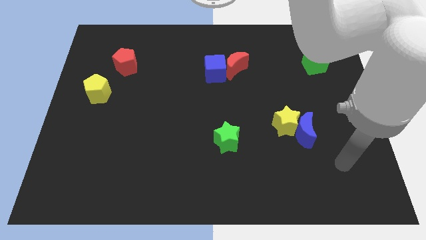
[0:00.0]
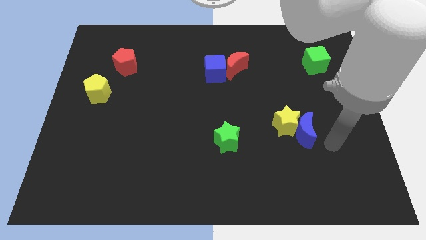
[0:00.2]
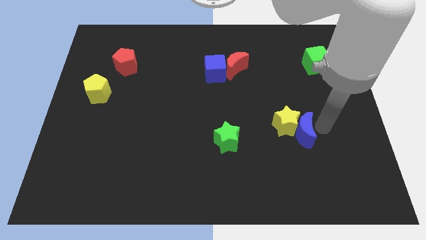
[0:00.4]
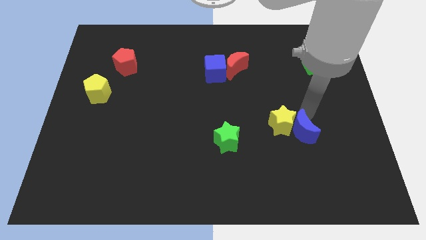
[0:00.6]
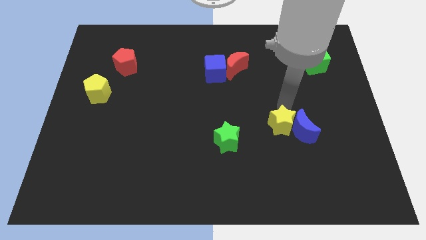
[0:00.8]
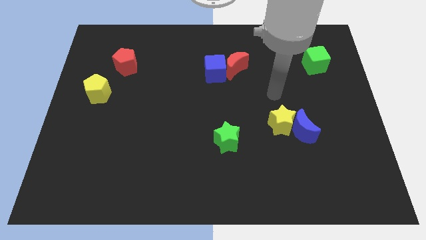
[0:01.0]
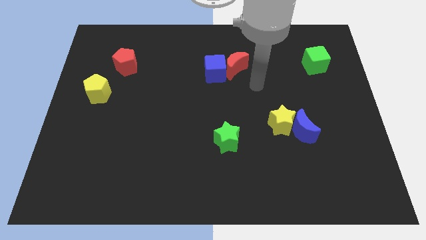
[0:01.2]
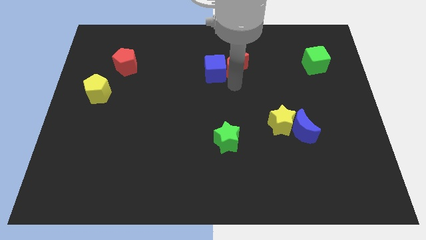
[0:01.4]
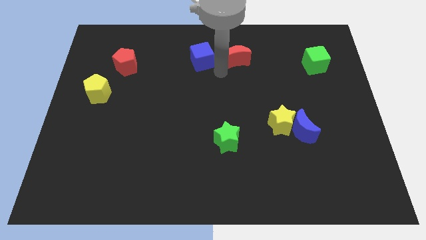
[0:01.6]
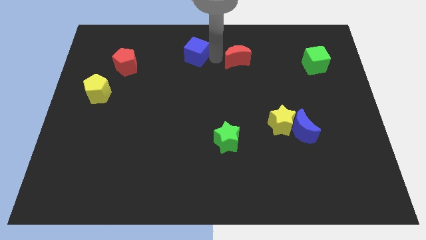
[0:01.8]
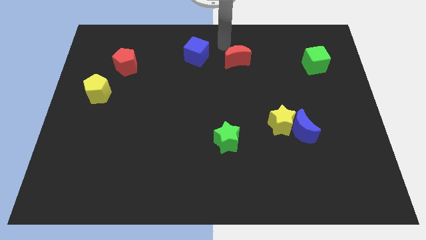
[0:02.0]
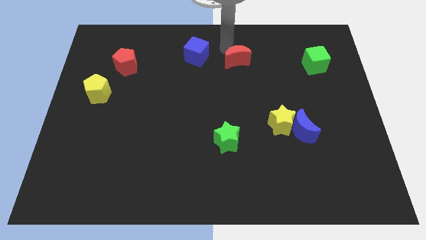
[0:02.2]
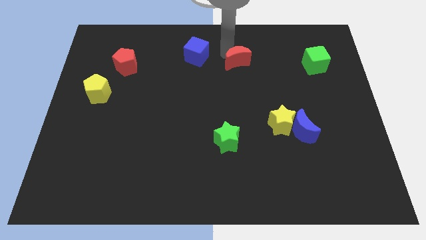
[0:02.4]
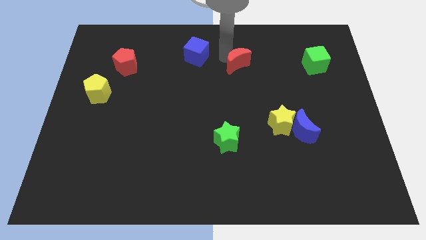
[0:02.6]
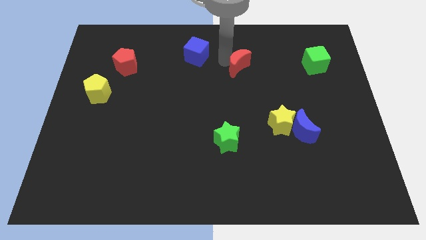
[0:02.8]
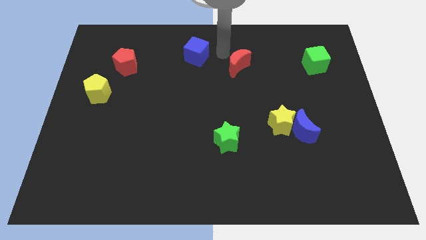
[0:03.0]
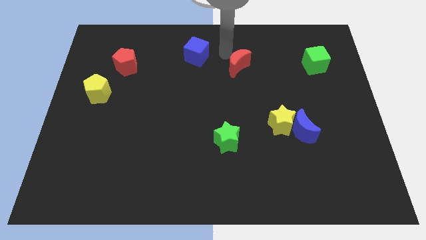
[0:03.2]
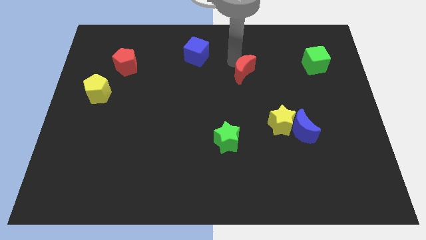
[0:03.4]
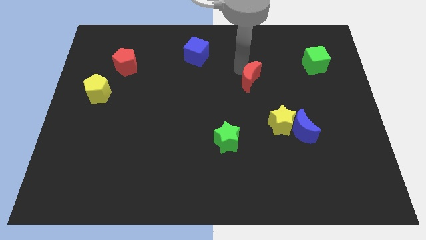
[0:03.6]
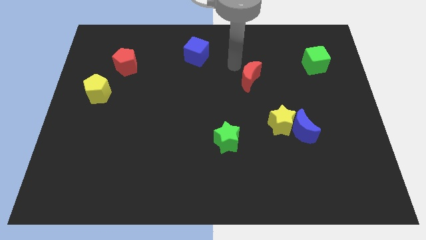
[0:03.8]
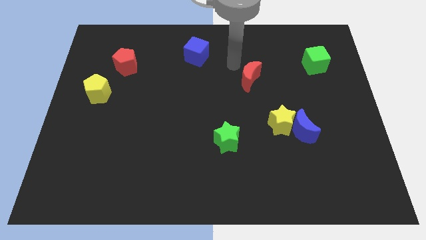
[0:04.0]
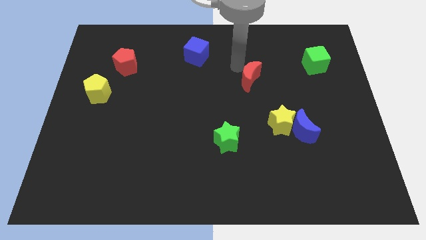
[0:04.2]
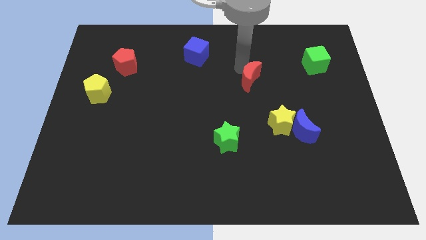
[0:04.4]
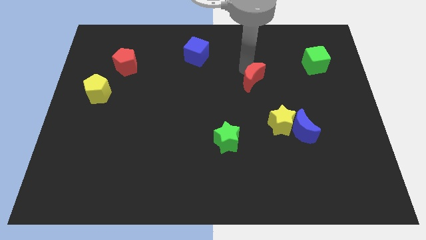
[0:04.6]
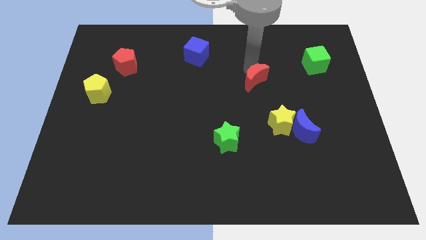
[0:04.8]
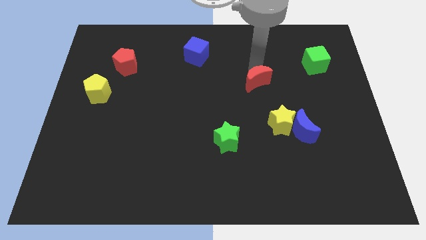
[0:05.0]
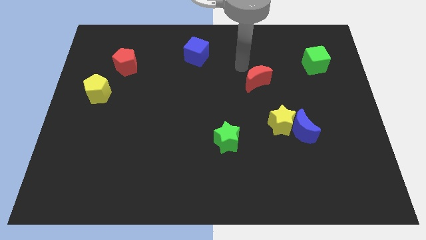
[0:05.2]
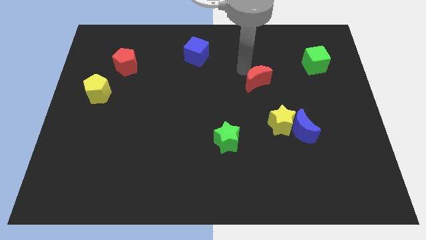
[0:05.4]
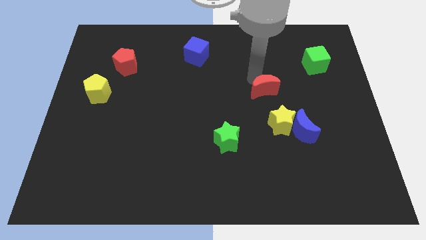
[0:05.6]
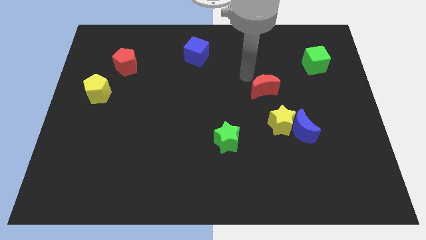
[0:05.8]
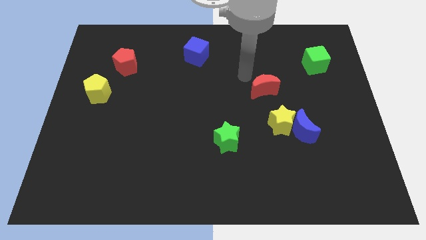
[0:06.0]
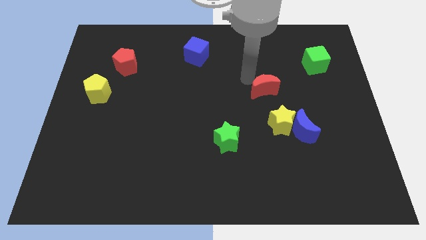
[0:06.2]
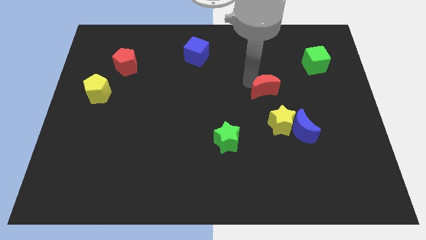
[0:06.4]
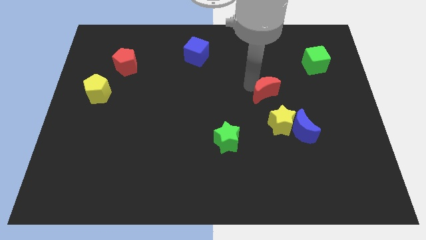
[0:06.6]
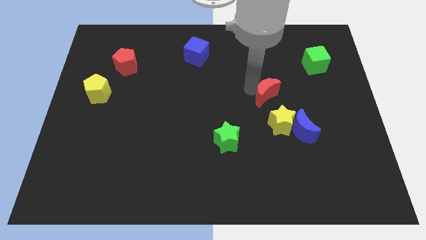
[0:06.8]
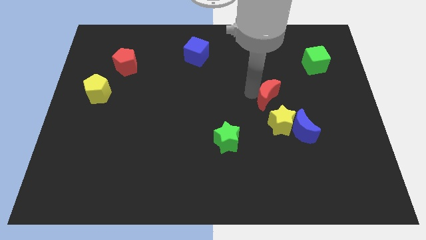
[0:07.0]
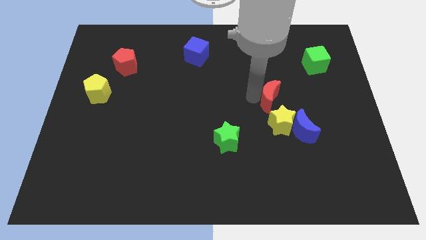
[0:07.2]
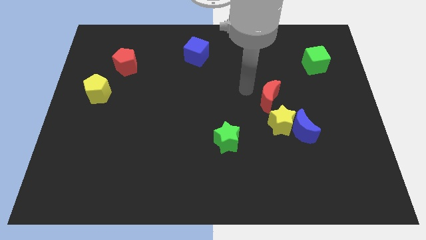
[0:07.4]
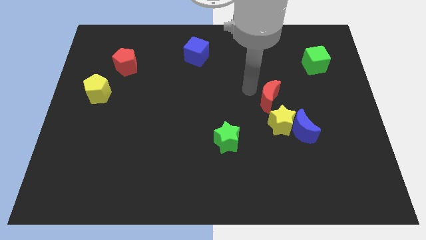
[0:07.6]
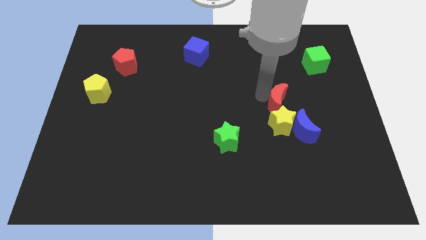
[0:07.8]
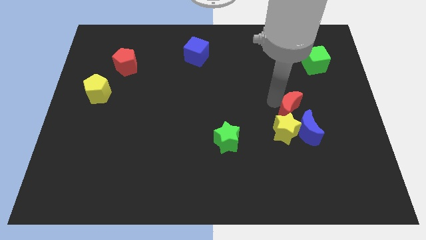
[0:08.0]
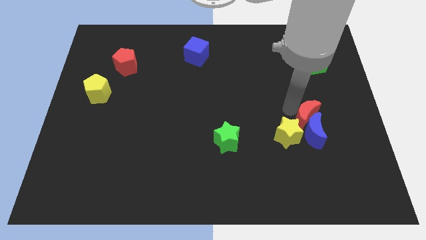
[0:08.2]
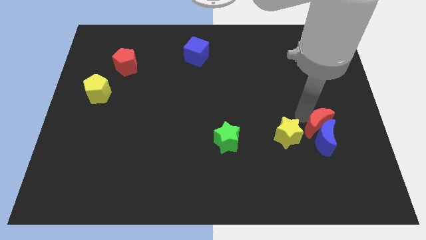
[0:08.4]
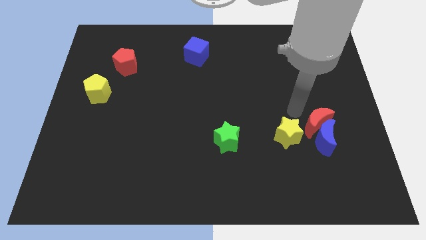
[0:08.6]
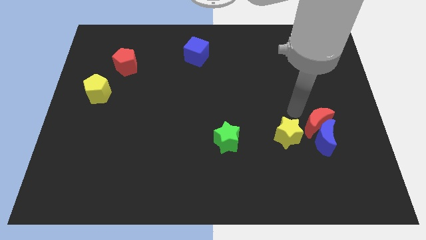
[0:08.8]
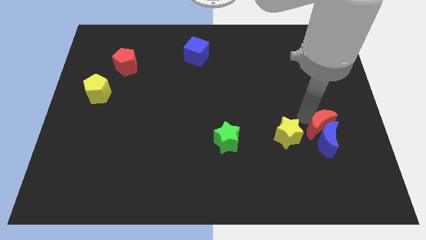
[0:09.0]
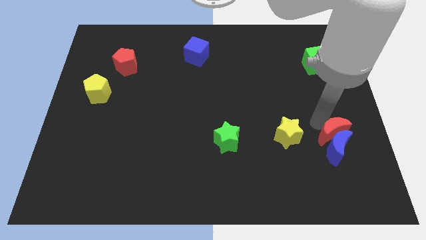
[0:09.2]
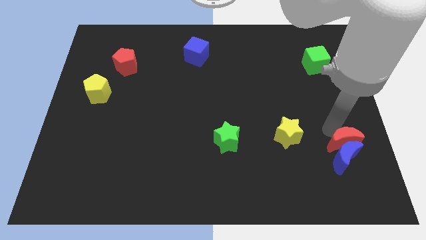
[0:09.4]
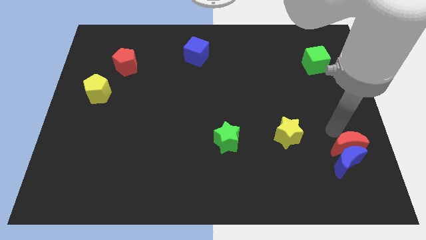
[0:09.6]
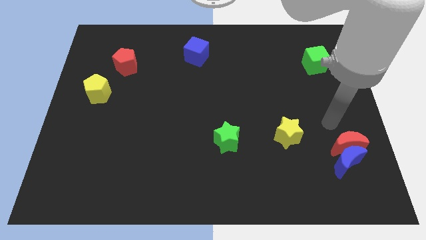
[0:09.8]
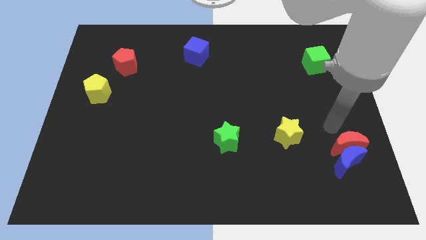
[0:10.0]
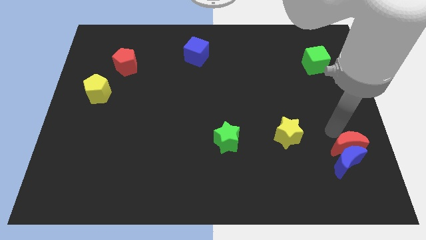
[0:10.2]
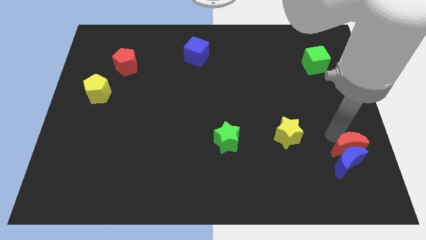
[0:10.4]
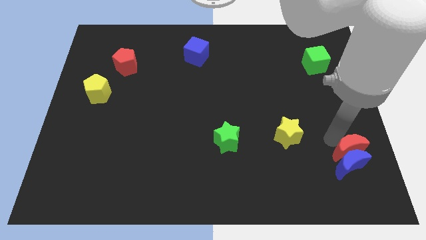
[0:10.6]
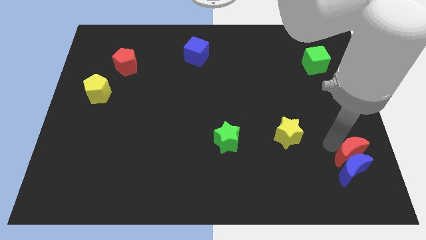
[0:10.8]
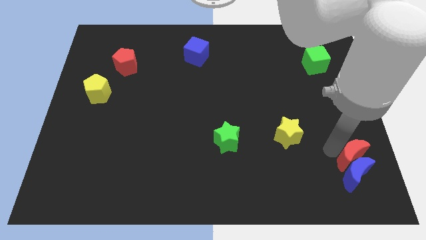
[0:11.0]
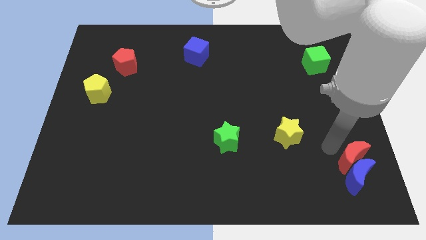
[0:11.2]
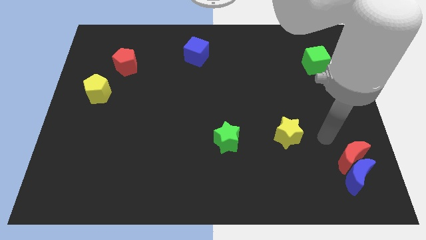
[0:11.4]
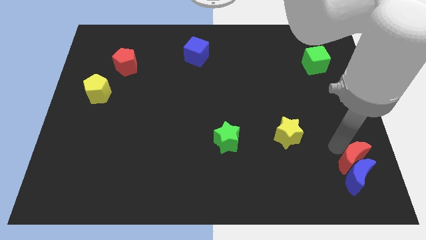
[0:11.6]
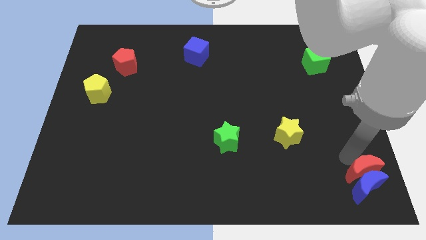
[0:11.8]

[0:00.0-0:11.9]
move the red moon to the bottom right

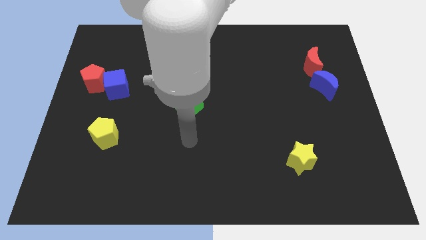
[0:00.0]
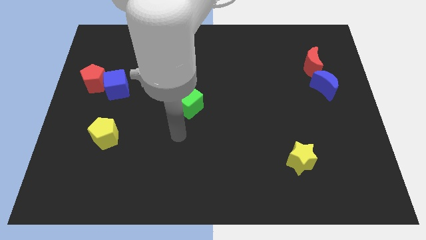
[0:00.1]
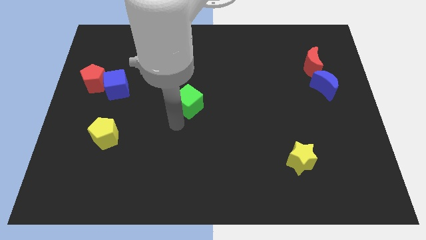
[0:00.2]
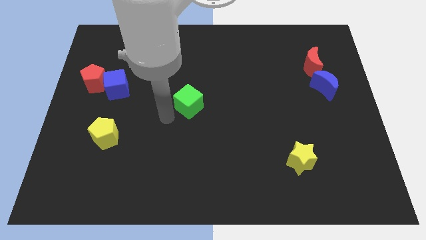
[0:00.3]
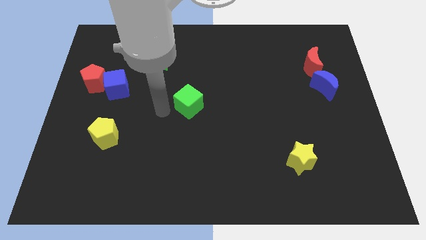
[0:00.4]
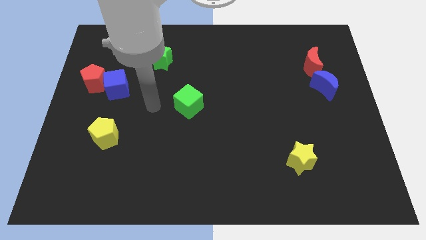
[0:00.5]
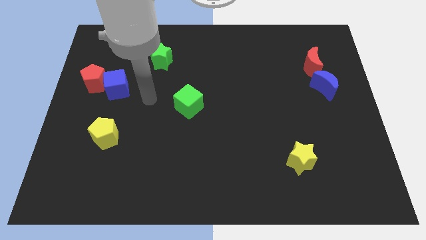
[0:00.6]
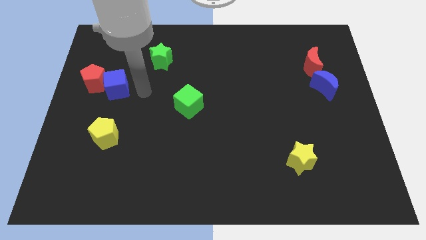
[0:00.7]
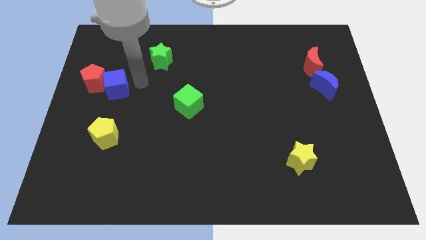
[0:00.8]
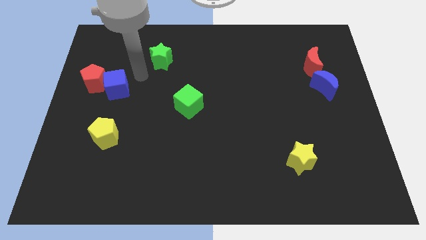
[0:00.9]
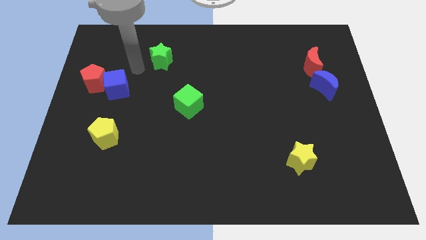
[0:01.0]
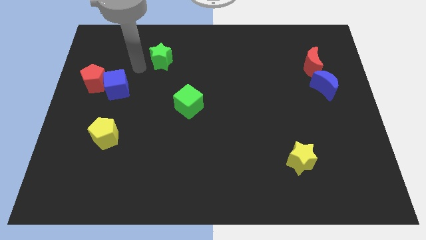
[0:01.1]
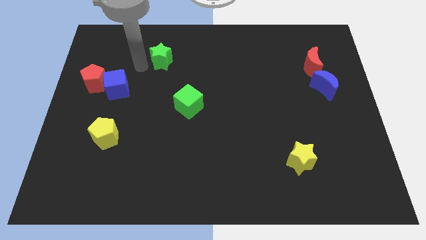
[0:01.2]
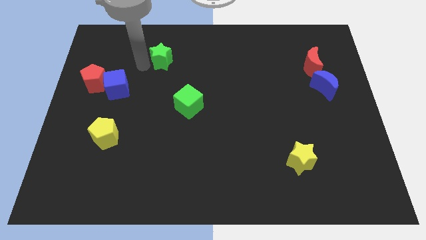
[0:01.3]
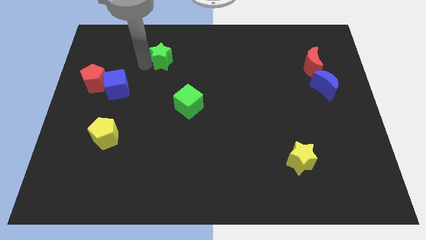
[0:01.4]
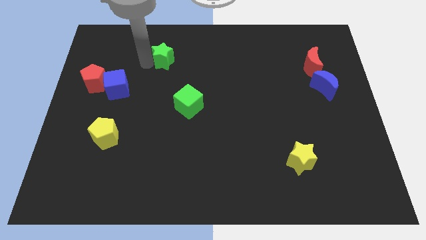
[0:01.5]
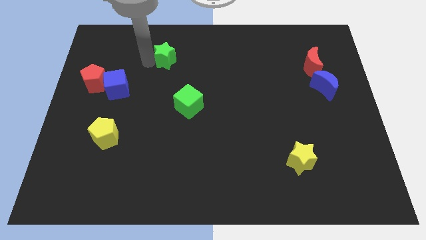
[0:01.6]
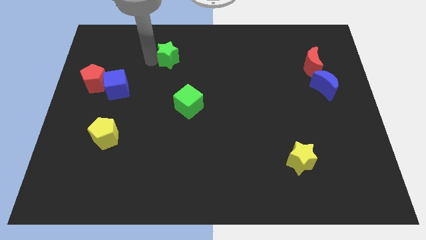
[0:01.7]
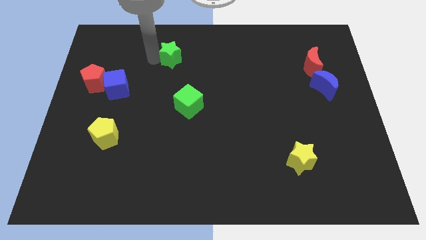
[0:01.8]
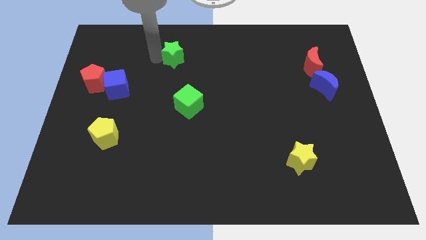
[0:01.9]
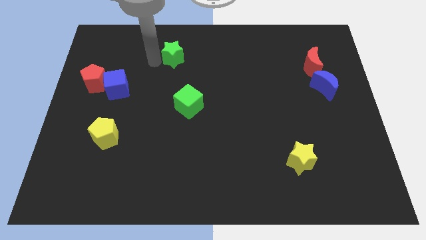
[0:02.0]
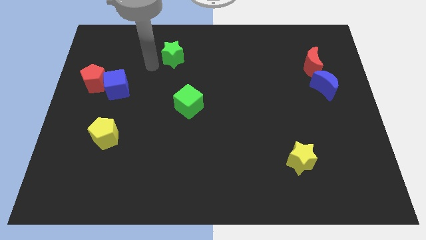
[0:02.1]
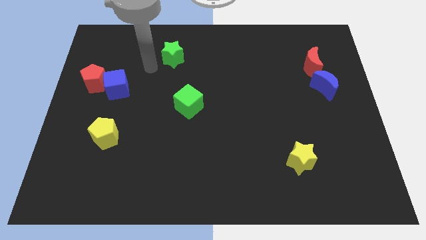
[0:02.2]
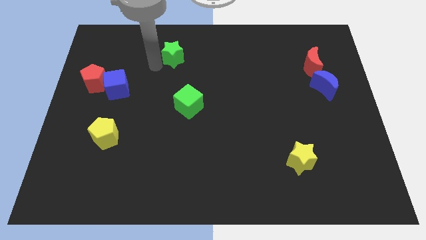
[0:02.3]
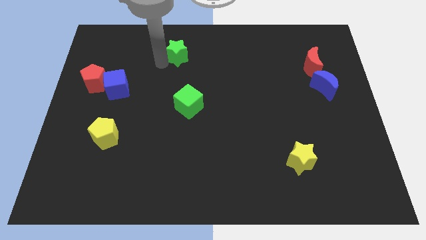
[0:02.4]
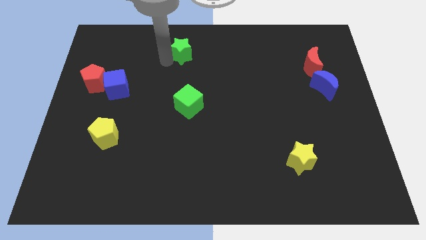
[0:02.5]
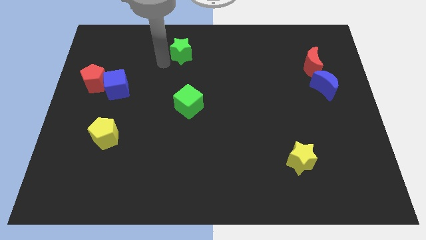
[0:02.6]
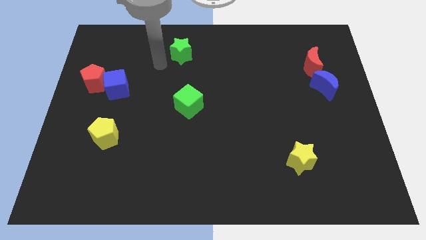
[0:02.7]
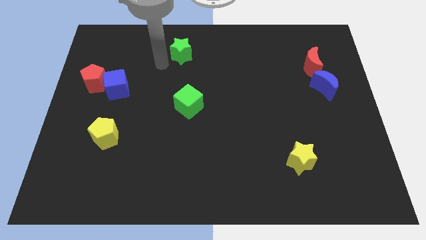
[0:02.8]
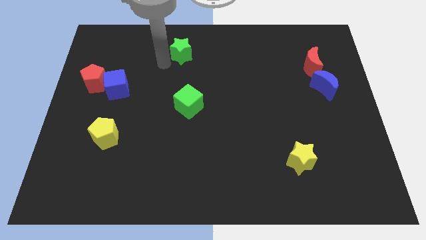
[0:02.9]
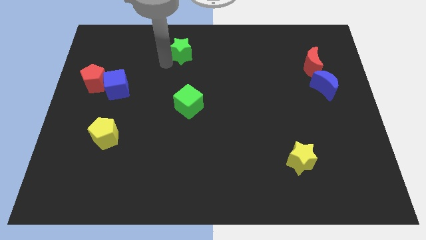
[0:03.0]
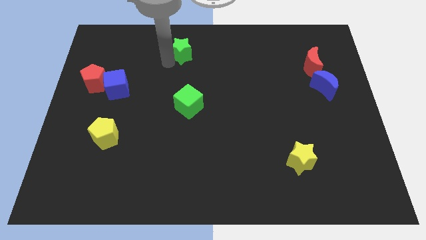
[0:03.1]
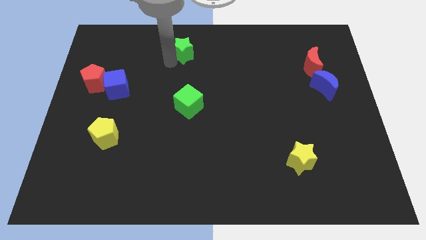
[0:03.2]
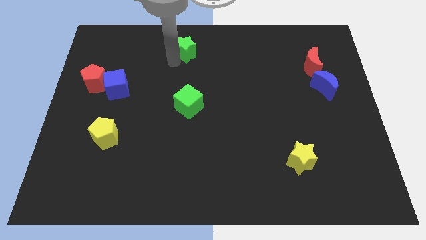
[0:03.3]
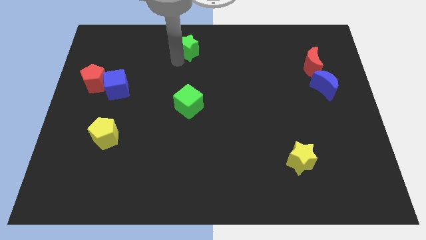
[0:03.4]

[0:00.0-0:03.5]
slide the green star to the top
